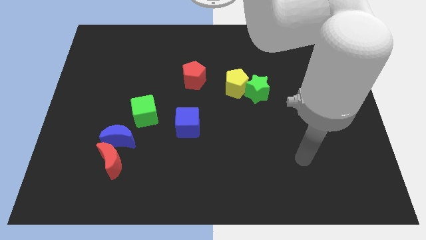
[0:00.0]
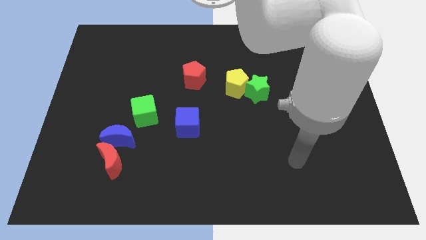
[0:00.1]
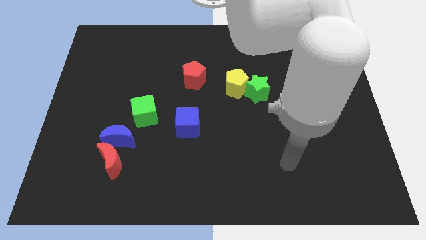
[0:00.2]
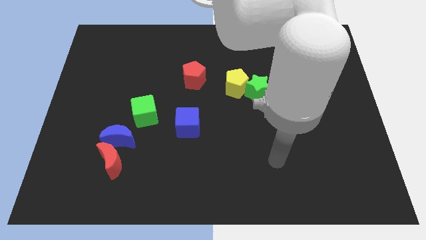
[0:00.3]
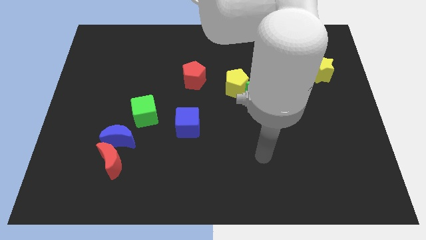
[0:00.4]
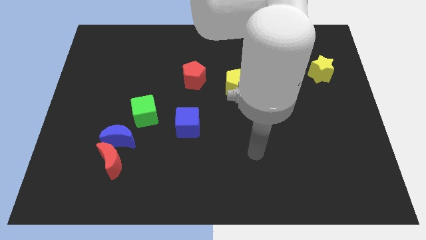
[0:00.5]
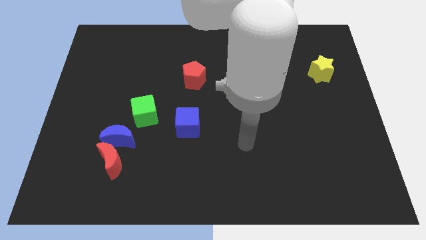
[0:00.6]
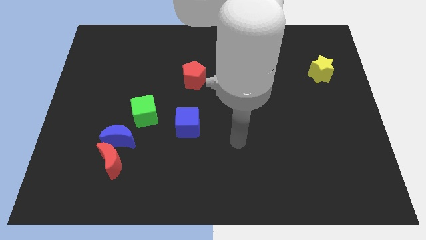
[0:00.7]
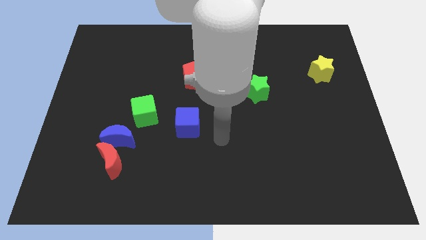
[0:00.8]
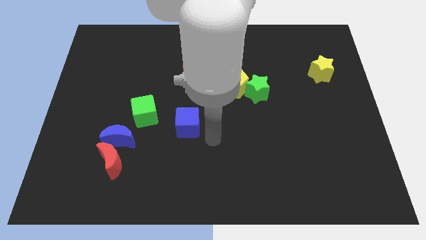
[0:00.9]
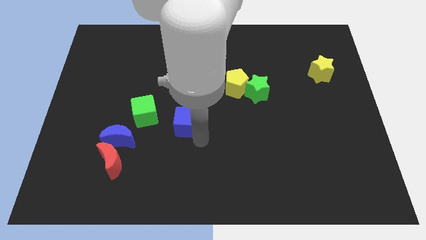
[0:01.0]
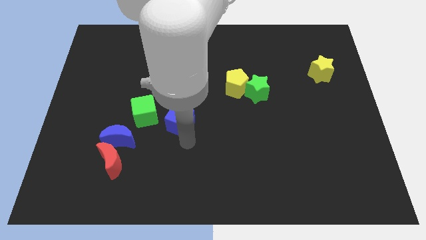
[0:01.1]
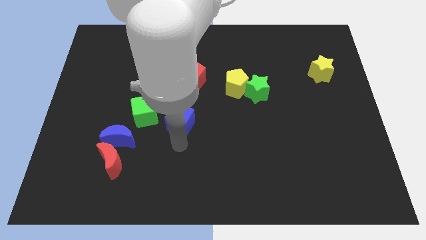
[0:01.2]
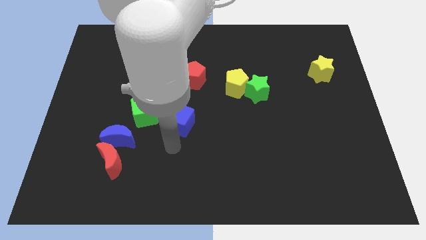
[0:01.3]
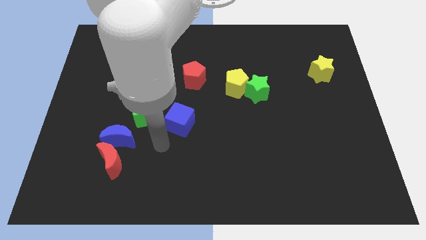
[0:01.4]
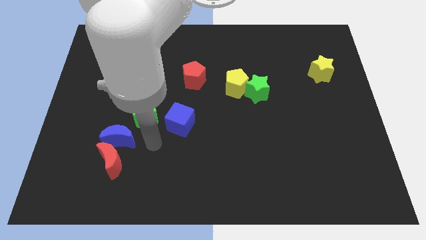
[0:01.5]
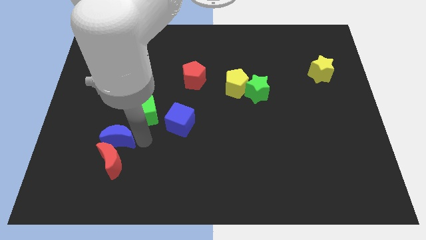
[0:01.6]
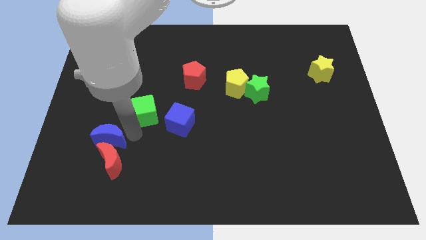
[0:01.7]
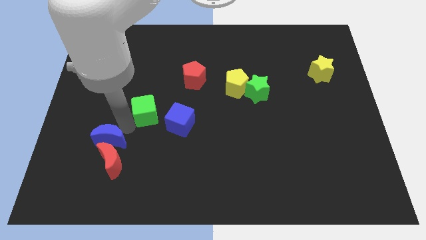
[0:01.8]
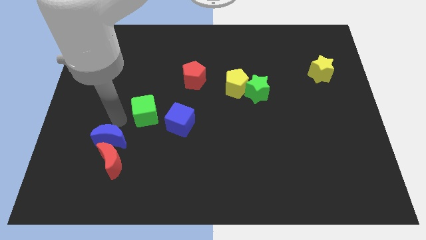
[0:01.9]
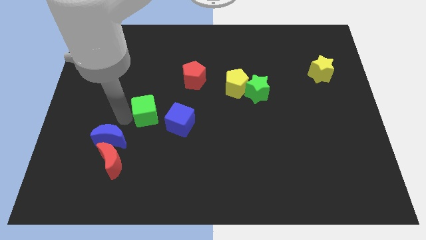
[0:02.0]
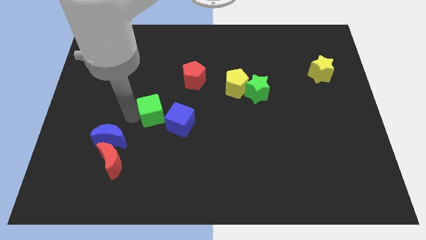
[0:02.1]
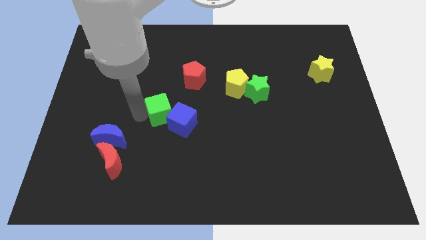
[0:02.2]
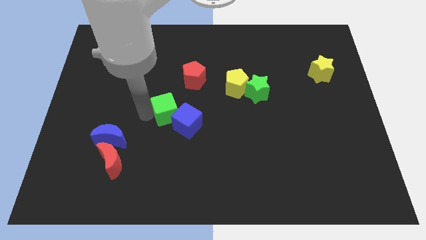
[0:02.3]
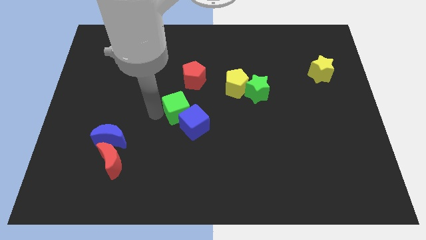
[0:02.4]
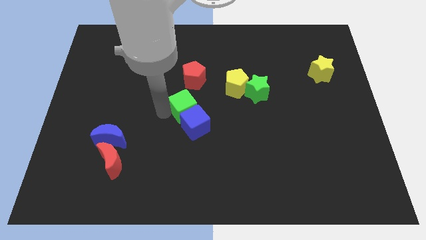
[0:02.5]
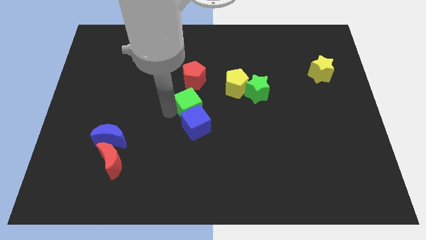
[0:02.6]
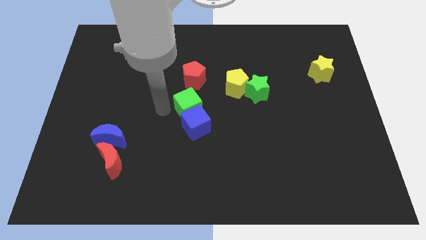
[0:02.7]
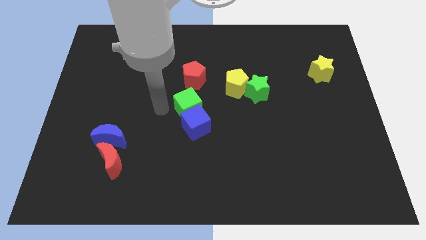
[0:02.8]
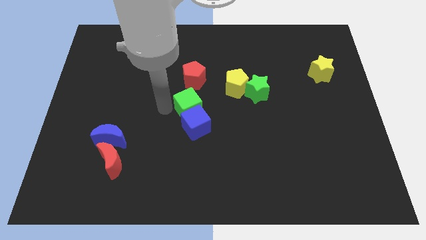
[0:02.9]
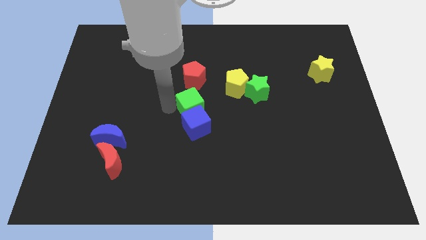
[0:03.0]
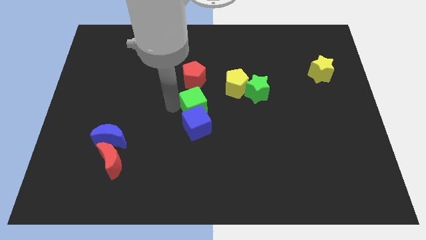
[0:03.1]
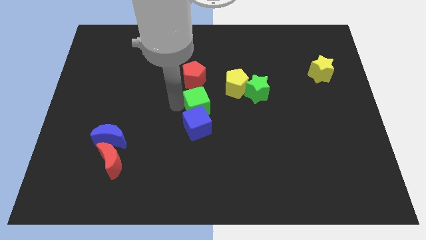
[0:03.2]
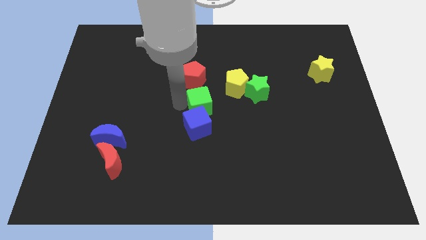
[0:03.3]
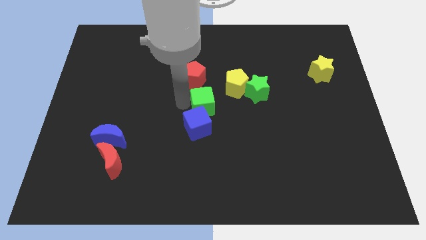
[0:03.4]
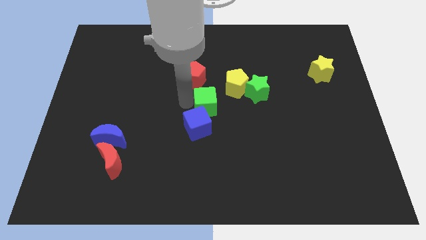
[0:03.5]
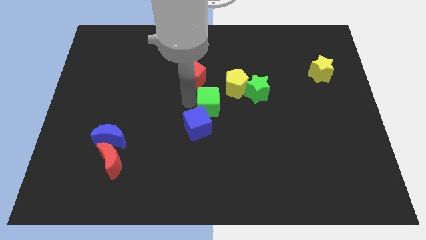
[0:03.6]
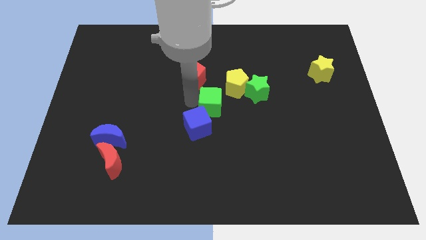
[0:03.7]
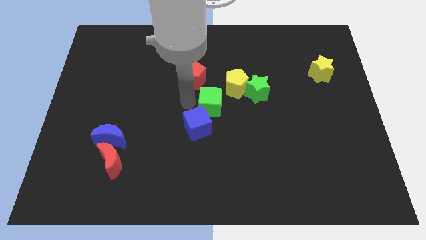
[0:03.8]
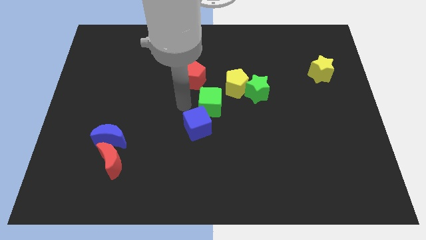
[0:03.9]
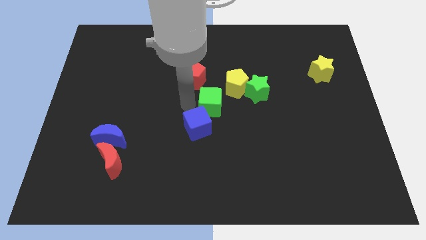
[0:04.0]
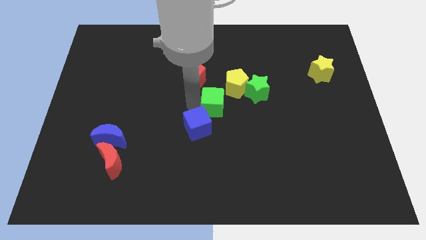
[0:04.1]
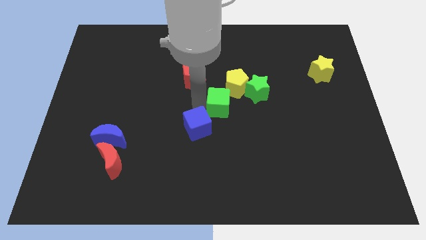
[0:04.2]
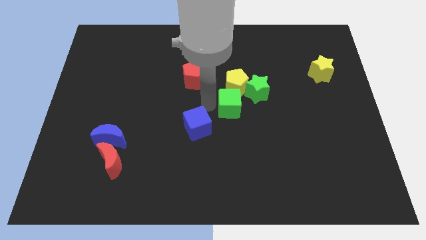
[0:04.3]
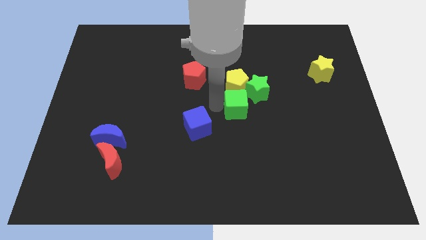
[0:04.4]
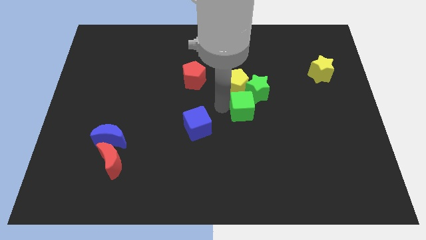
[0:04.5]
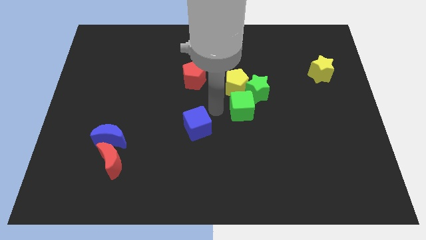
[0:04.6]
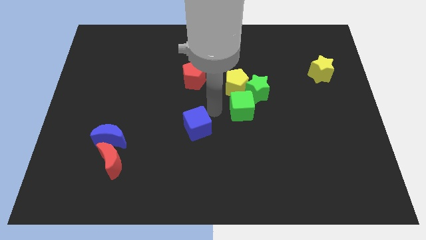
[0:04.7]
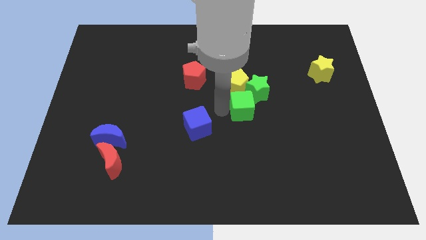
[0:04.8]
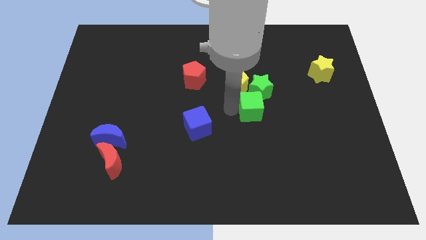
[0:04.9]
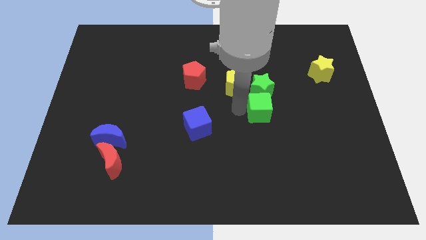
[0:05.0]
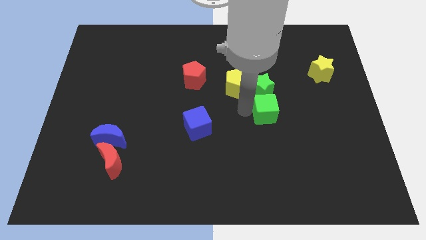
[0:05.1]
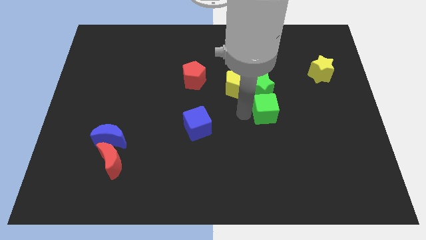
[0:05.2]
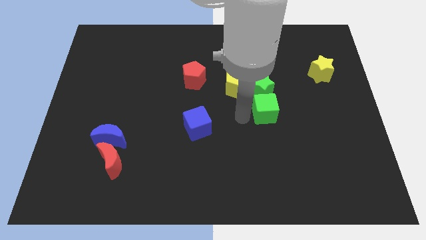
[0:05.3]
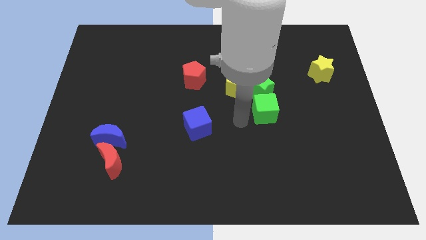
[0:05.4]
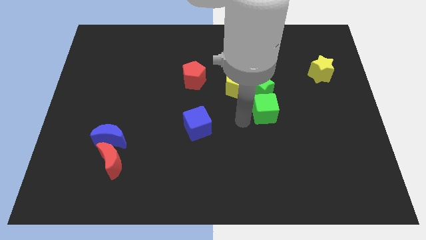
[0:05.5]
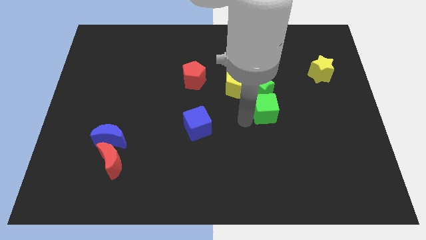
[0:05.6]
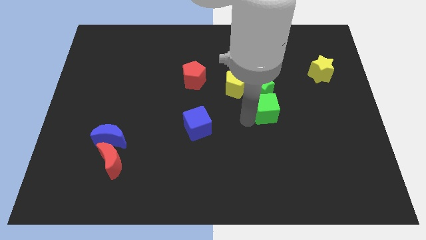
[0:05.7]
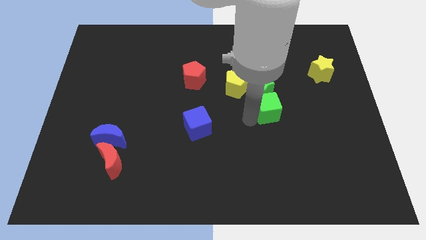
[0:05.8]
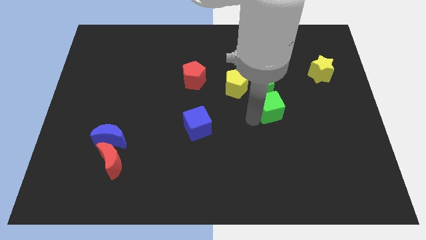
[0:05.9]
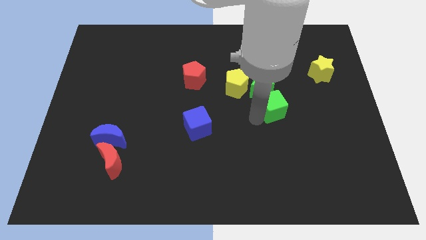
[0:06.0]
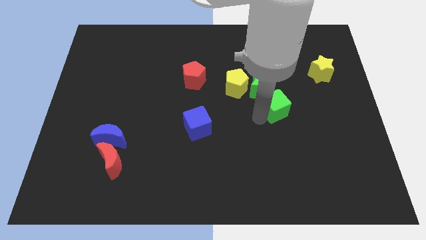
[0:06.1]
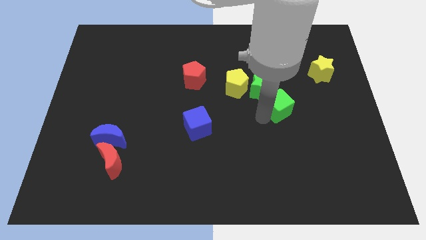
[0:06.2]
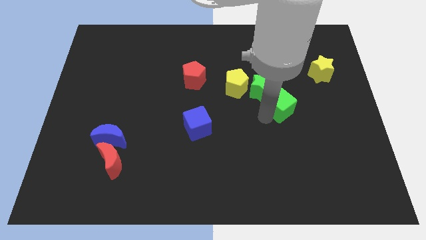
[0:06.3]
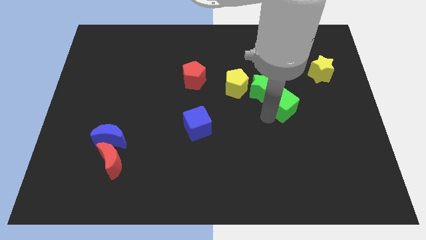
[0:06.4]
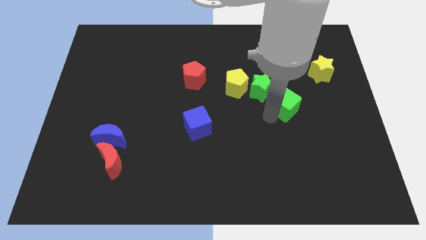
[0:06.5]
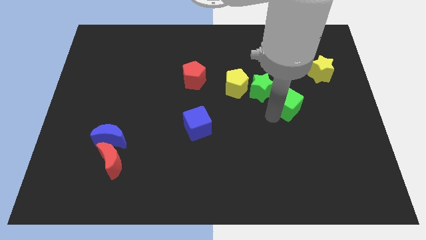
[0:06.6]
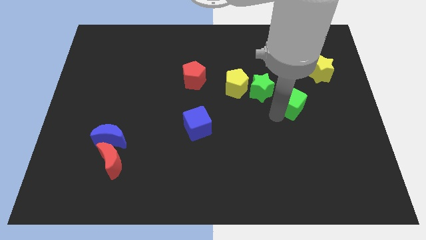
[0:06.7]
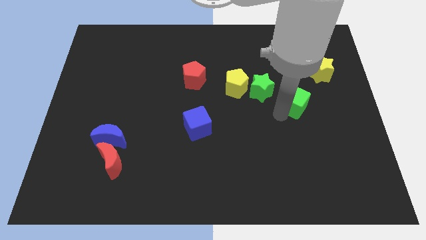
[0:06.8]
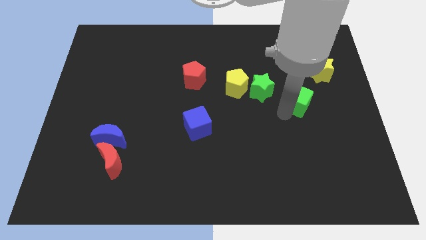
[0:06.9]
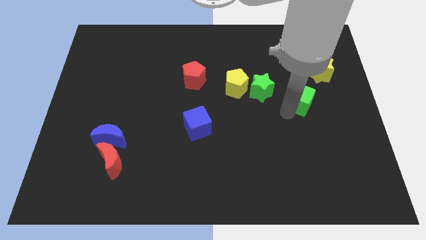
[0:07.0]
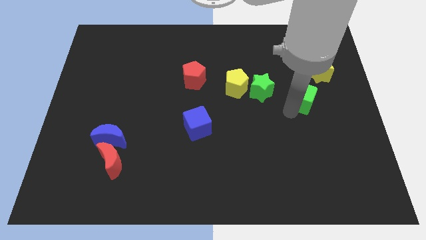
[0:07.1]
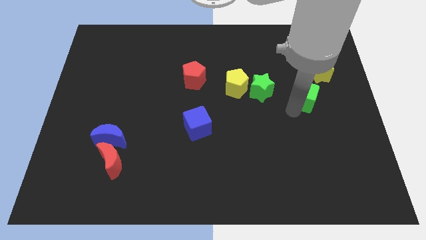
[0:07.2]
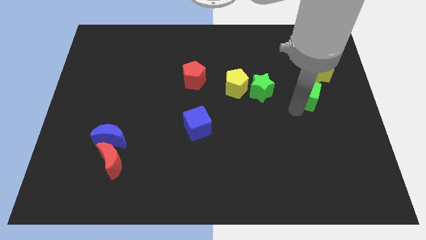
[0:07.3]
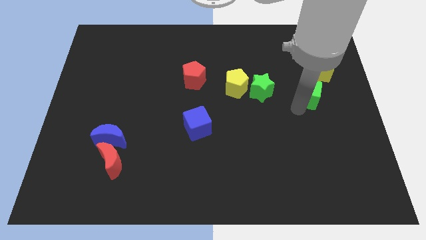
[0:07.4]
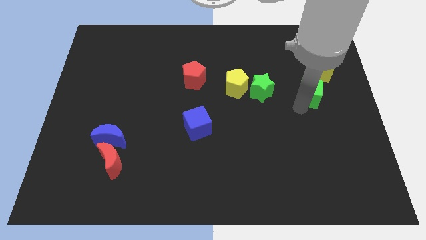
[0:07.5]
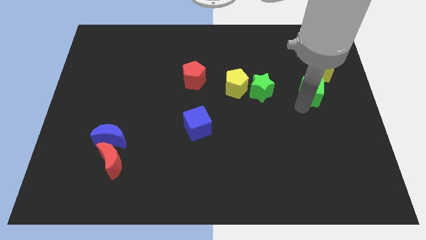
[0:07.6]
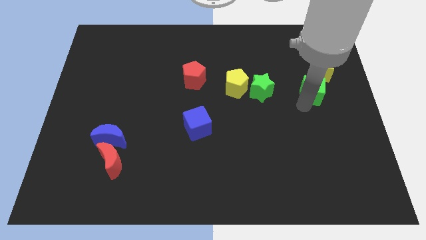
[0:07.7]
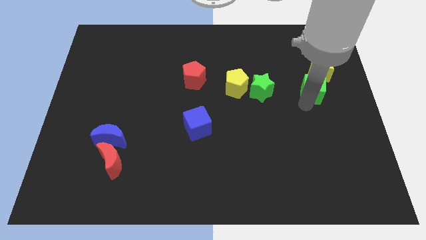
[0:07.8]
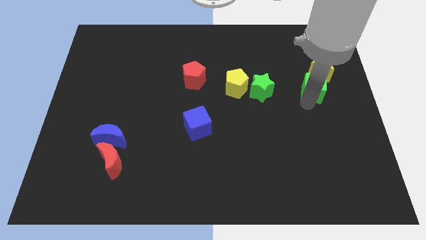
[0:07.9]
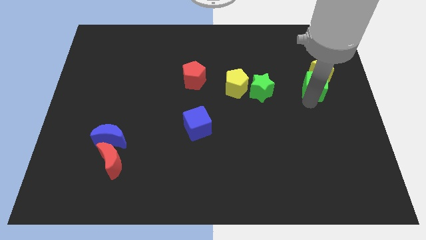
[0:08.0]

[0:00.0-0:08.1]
move the green cube towards the yellow star

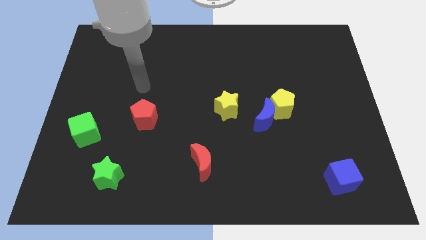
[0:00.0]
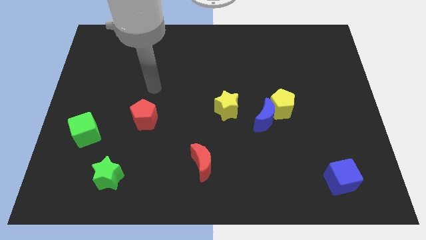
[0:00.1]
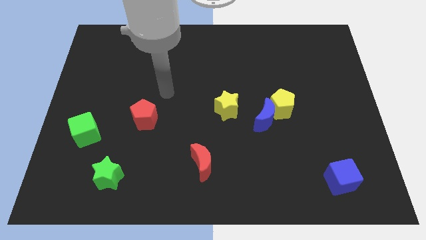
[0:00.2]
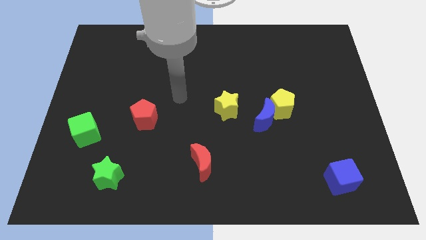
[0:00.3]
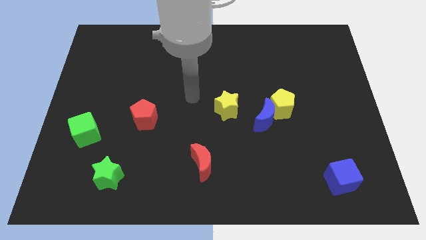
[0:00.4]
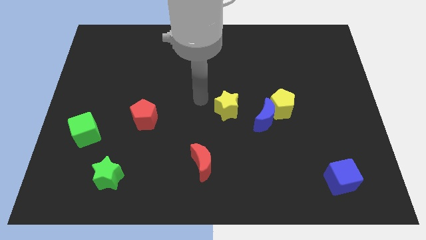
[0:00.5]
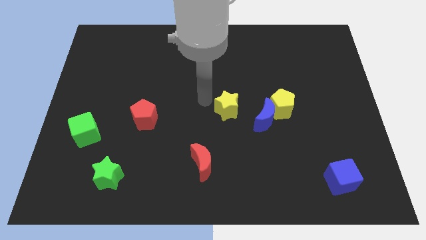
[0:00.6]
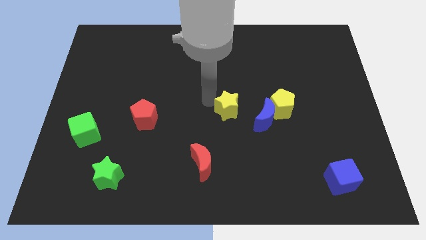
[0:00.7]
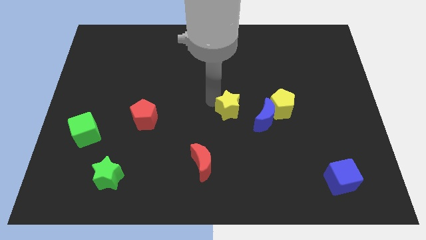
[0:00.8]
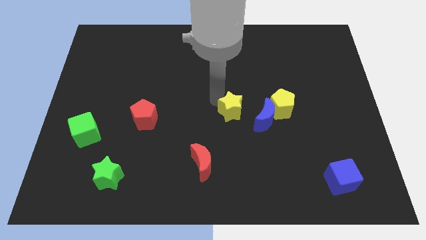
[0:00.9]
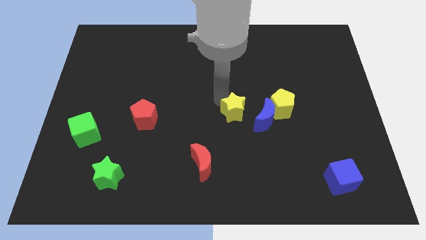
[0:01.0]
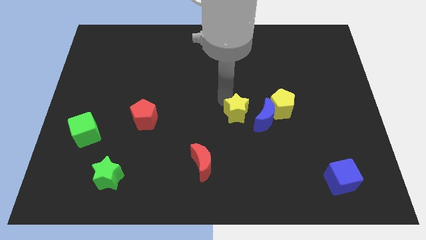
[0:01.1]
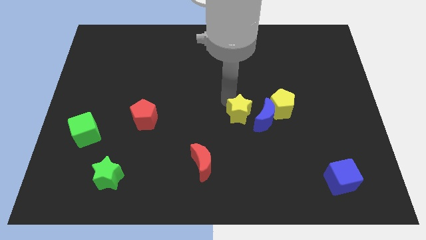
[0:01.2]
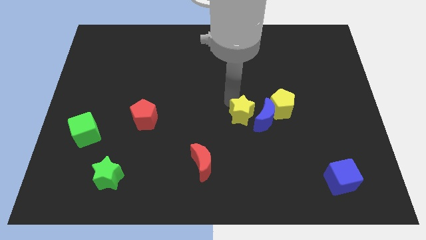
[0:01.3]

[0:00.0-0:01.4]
move the yellow star to the blue moon
